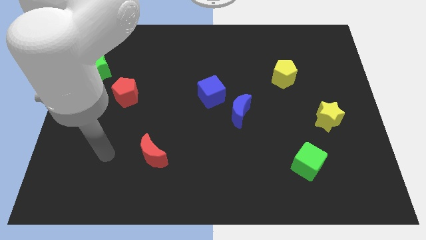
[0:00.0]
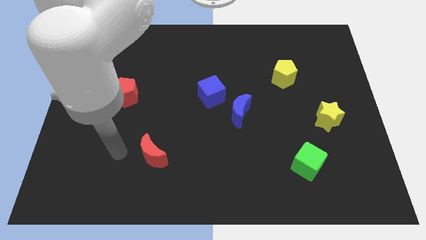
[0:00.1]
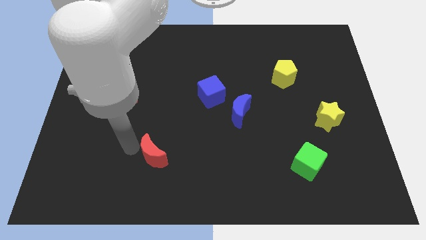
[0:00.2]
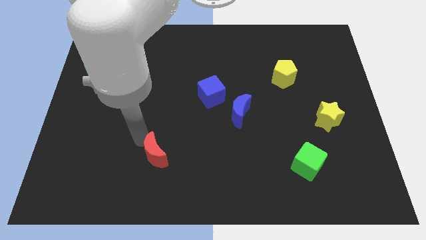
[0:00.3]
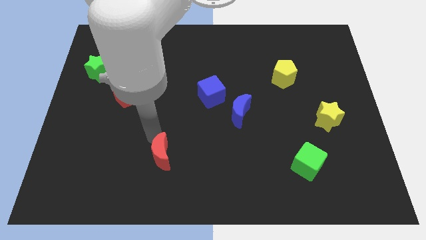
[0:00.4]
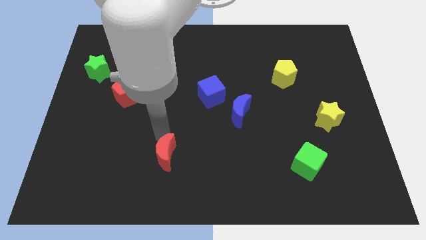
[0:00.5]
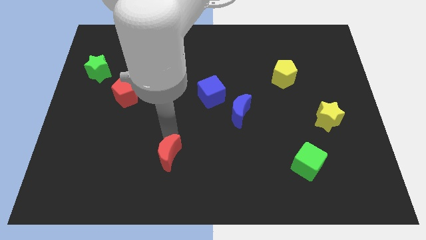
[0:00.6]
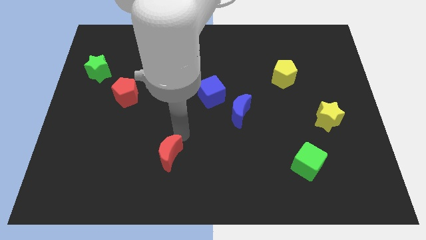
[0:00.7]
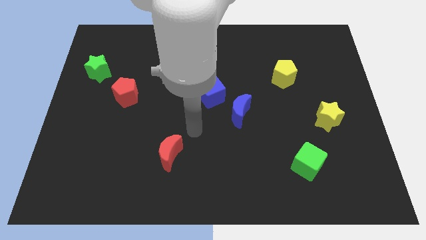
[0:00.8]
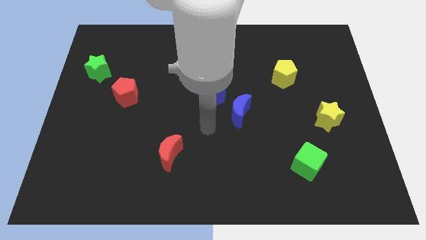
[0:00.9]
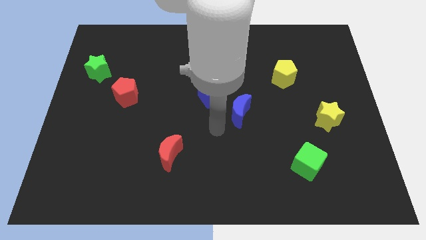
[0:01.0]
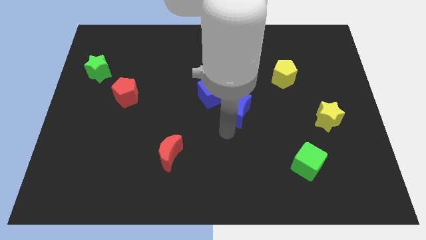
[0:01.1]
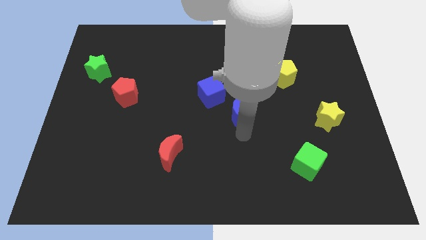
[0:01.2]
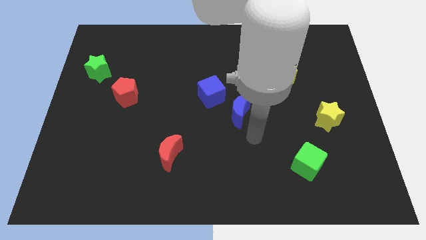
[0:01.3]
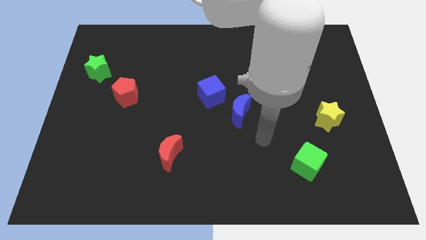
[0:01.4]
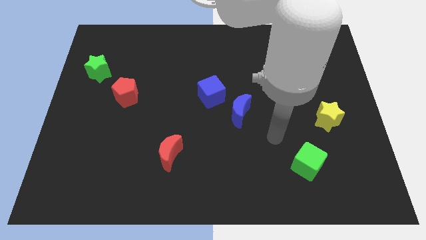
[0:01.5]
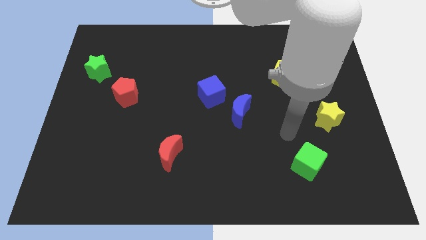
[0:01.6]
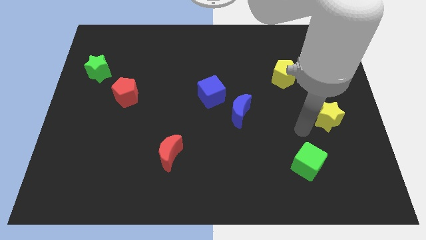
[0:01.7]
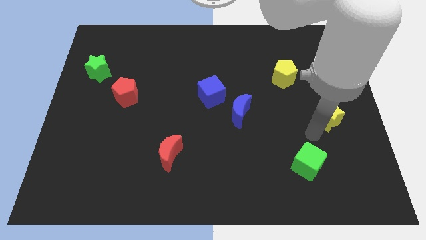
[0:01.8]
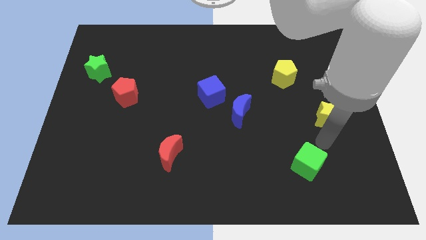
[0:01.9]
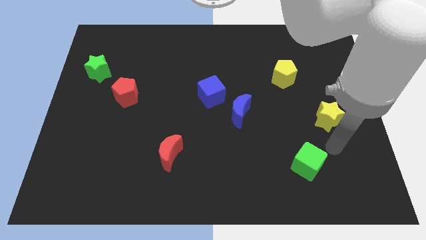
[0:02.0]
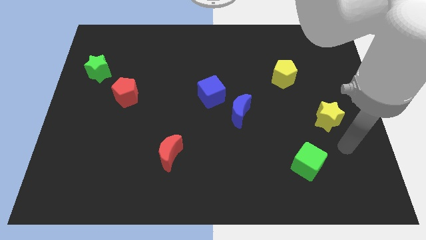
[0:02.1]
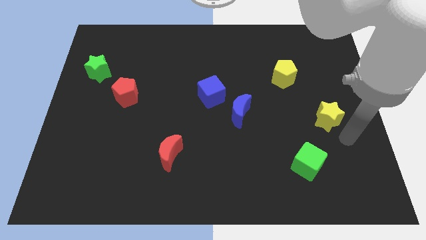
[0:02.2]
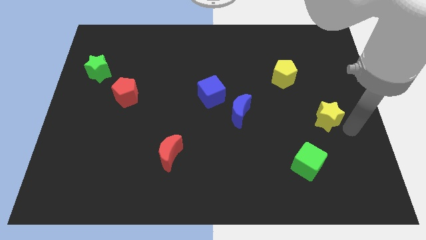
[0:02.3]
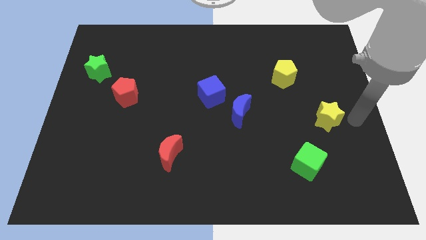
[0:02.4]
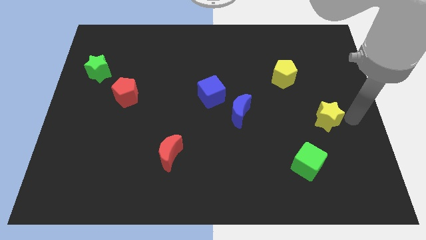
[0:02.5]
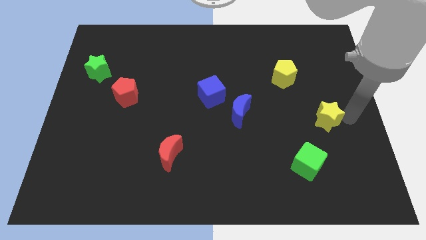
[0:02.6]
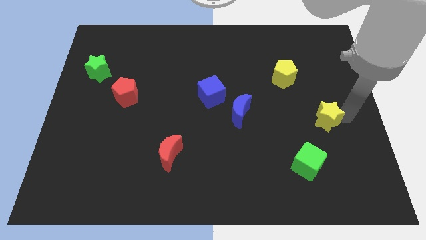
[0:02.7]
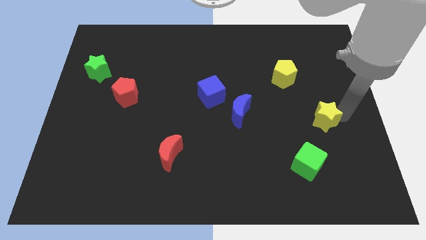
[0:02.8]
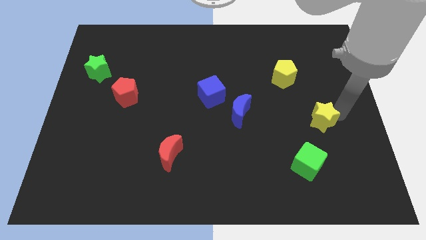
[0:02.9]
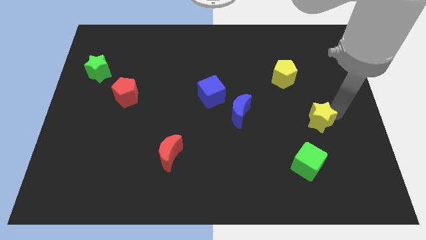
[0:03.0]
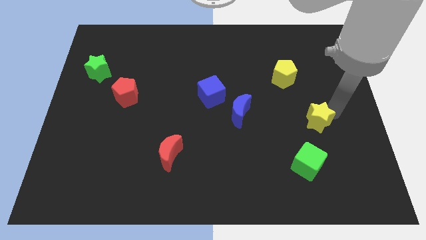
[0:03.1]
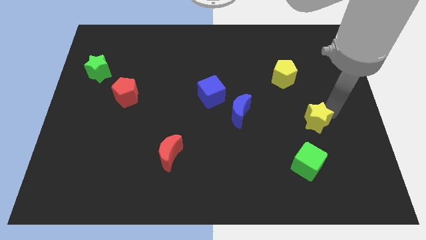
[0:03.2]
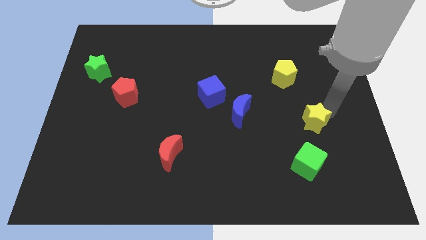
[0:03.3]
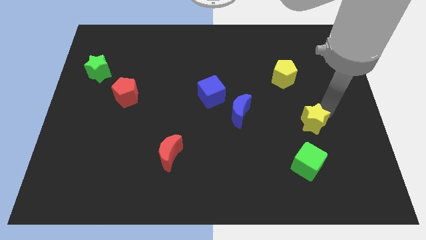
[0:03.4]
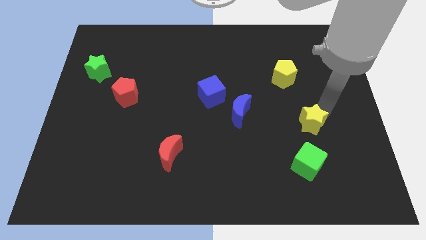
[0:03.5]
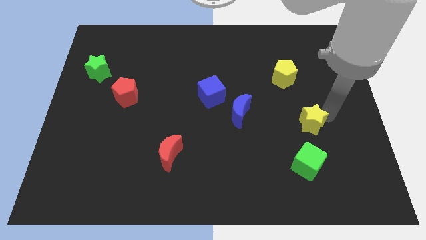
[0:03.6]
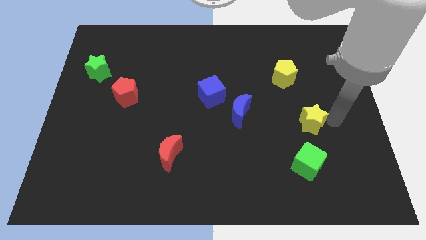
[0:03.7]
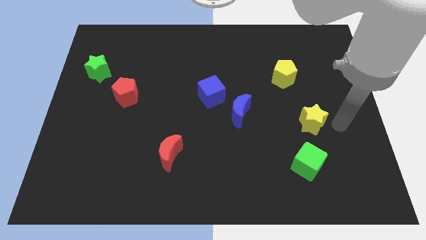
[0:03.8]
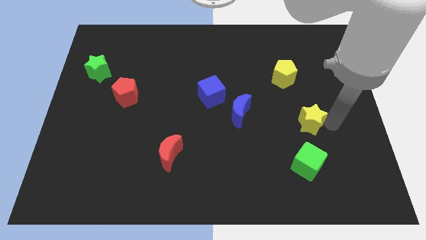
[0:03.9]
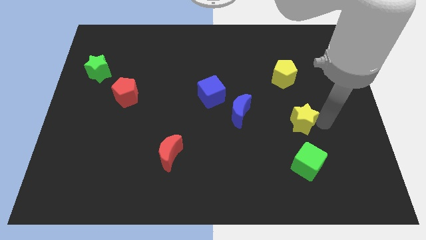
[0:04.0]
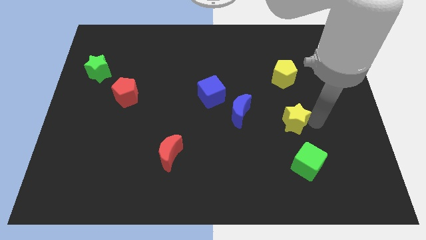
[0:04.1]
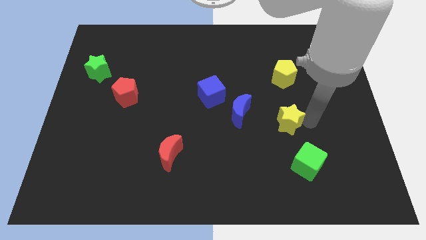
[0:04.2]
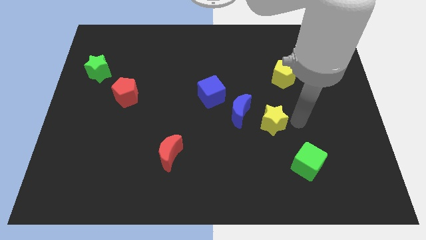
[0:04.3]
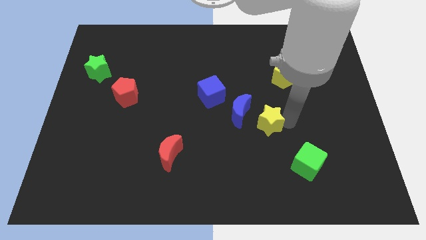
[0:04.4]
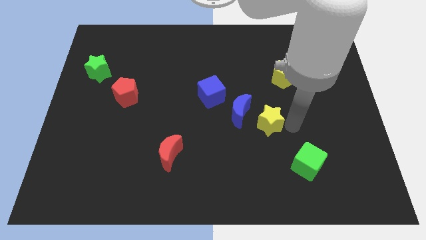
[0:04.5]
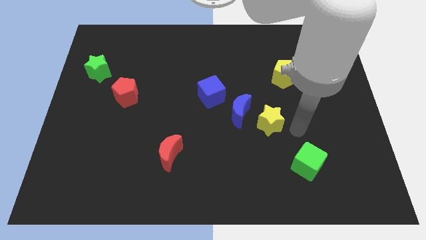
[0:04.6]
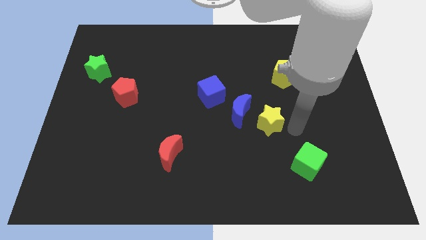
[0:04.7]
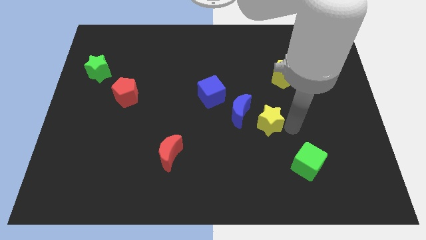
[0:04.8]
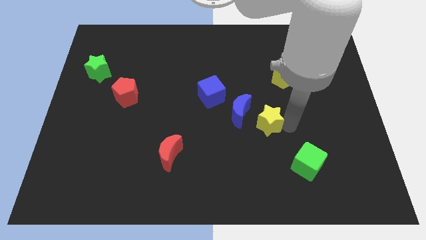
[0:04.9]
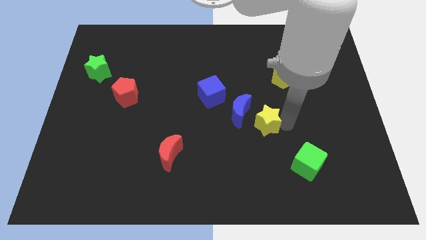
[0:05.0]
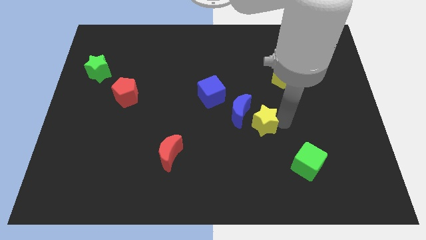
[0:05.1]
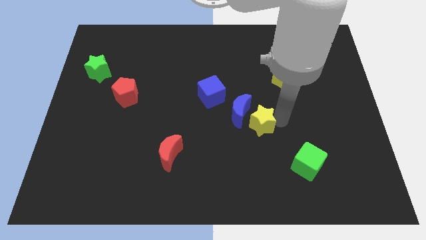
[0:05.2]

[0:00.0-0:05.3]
put the yellow star towards the blue moon

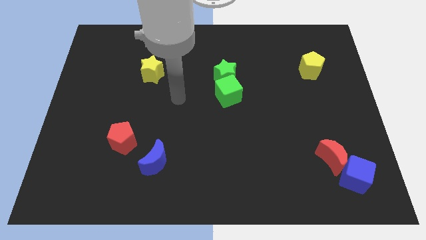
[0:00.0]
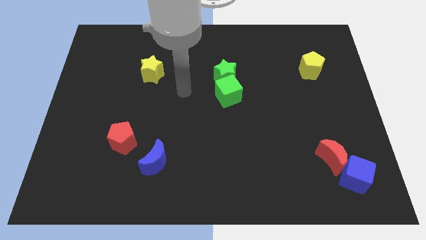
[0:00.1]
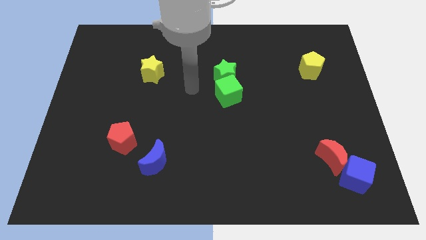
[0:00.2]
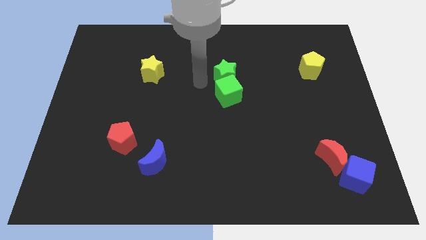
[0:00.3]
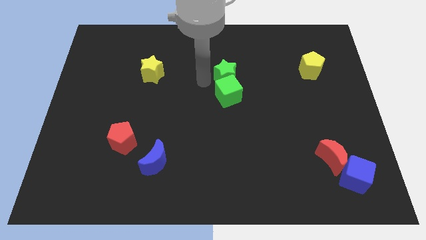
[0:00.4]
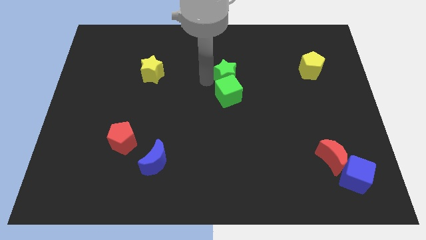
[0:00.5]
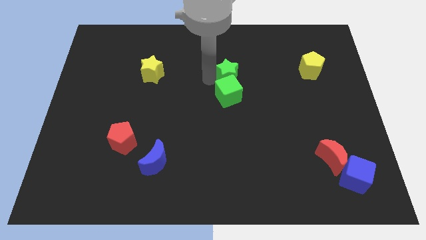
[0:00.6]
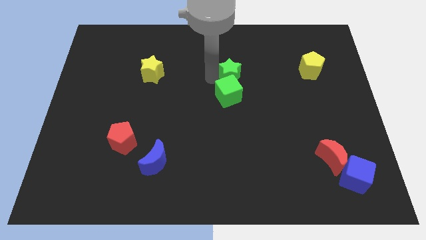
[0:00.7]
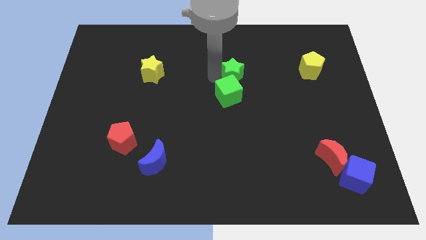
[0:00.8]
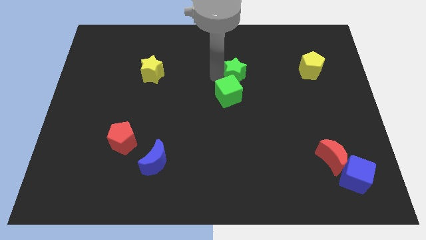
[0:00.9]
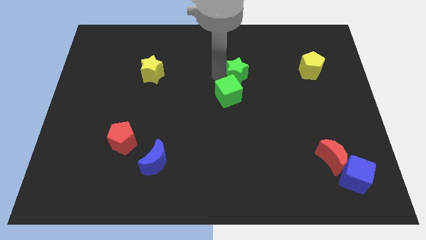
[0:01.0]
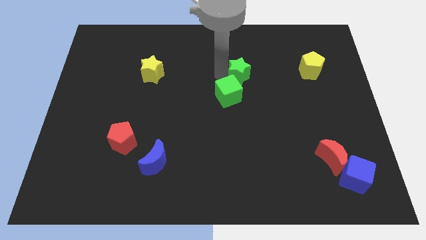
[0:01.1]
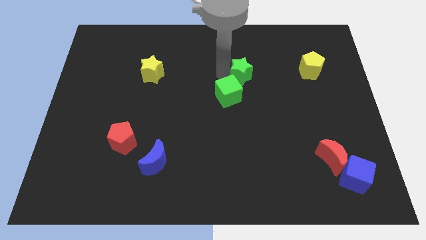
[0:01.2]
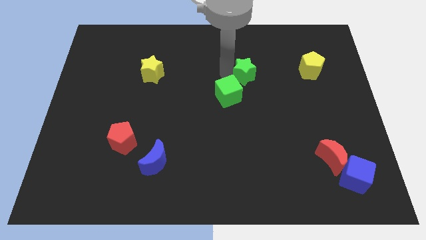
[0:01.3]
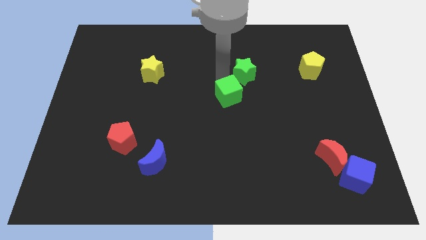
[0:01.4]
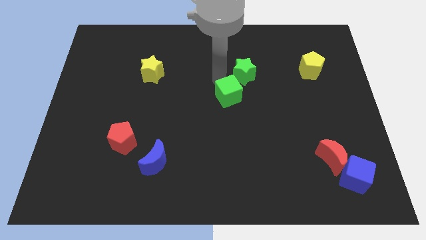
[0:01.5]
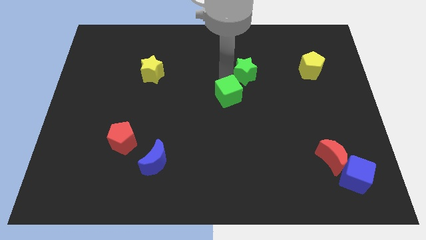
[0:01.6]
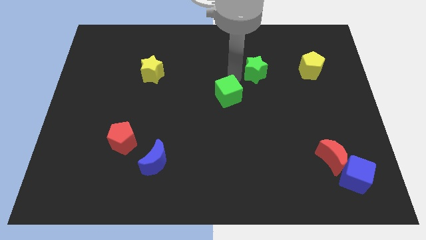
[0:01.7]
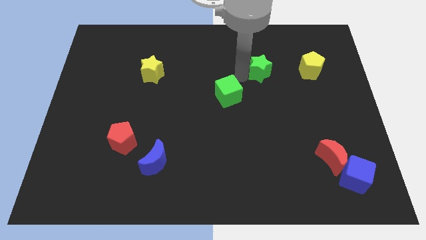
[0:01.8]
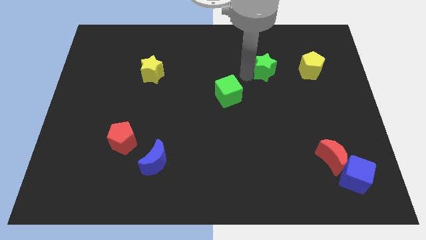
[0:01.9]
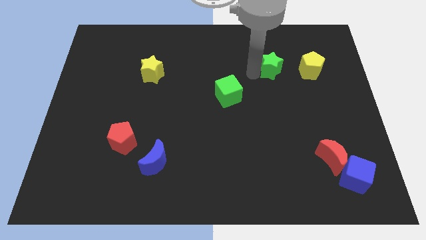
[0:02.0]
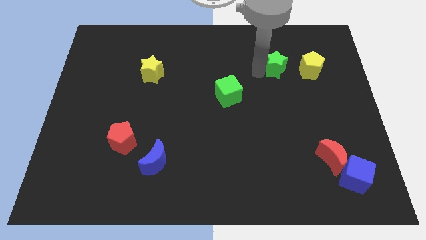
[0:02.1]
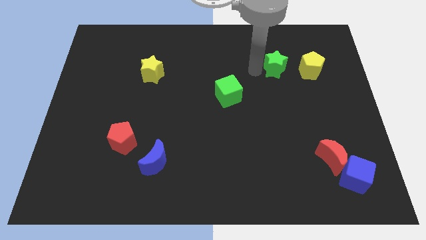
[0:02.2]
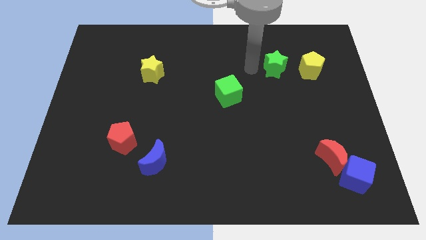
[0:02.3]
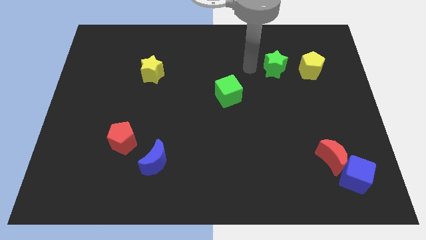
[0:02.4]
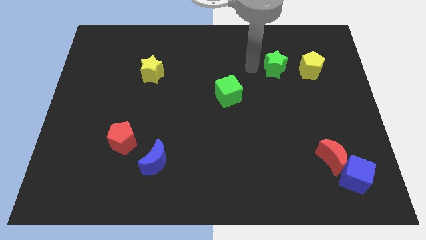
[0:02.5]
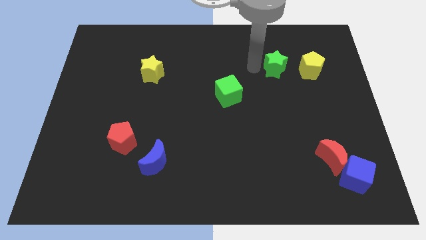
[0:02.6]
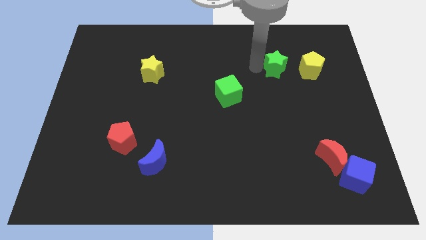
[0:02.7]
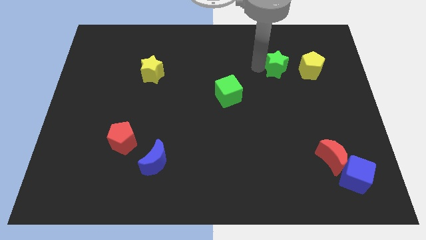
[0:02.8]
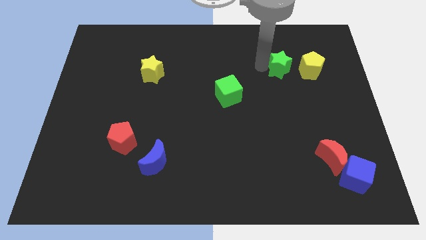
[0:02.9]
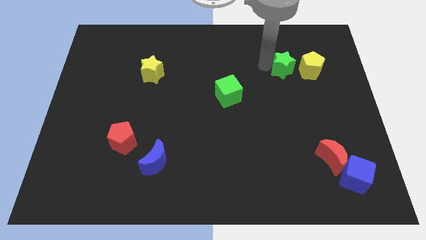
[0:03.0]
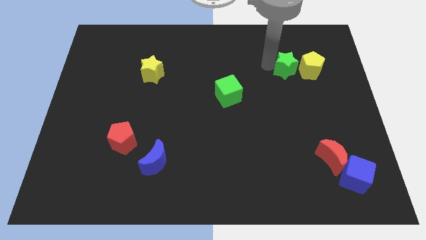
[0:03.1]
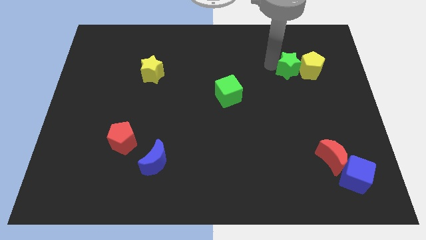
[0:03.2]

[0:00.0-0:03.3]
slide the green star towards the yellow pentagon
